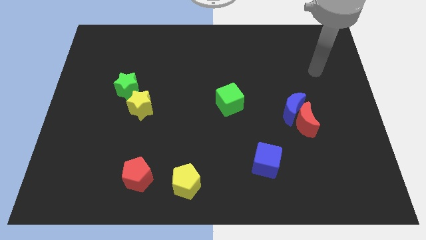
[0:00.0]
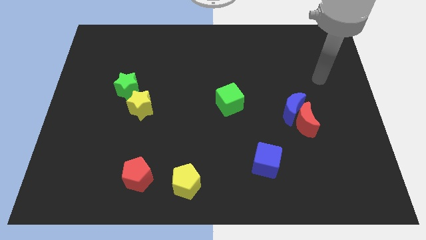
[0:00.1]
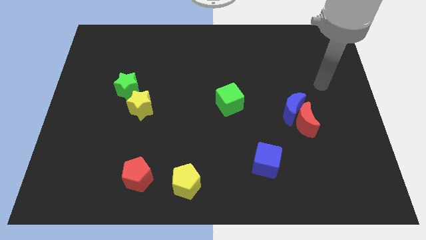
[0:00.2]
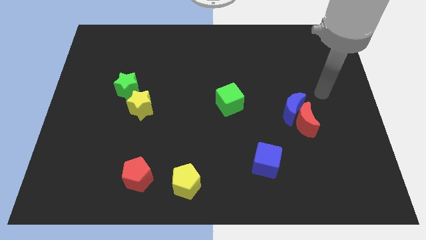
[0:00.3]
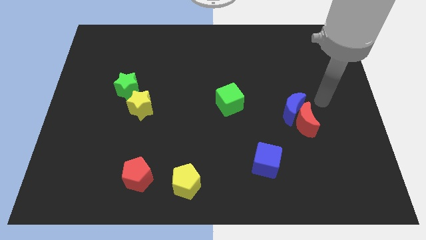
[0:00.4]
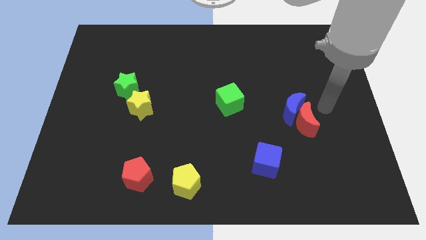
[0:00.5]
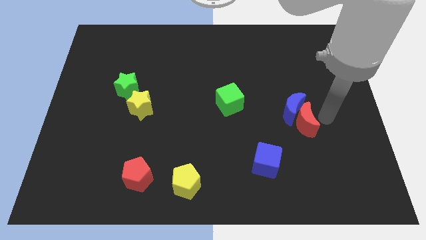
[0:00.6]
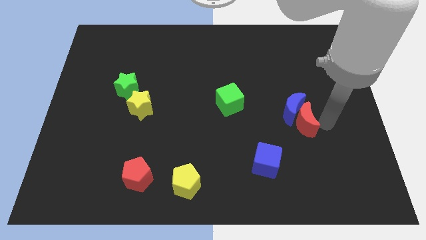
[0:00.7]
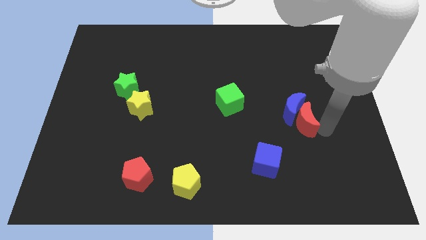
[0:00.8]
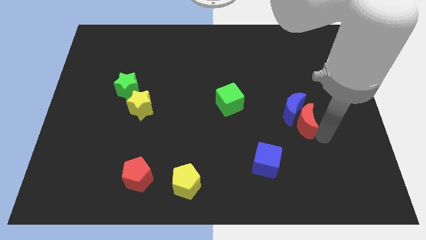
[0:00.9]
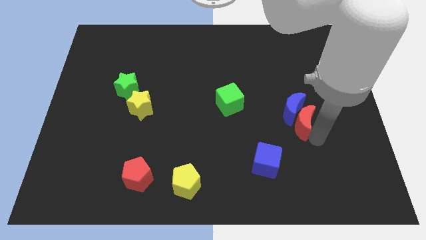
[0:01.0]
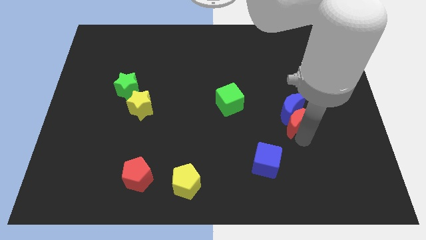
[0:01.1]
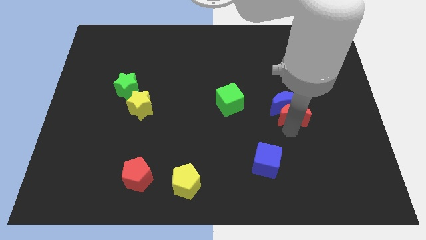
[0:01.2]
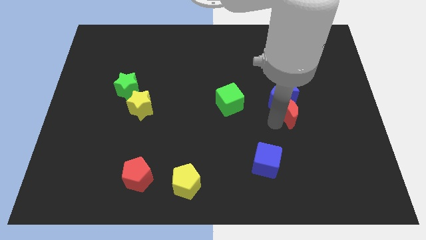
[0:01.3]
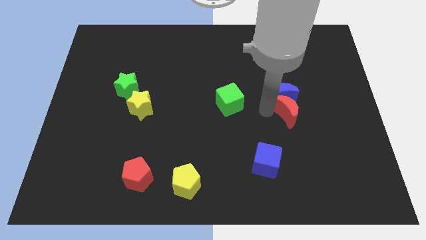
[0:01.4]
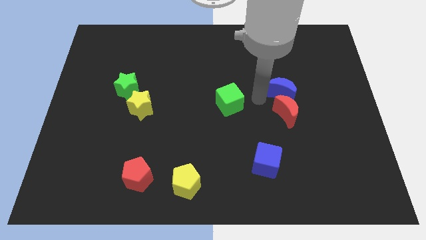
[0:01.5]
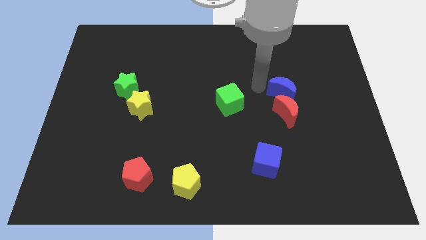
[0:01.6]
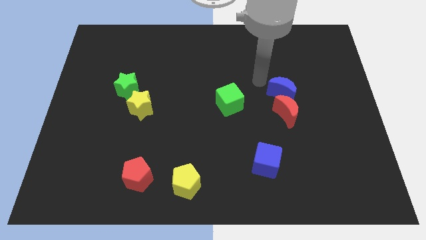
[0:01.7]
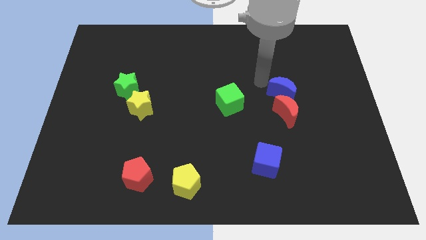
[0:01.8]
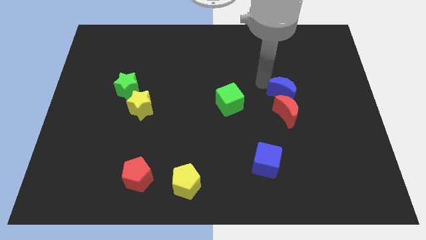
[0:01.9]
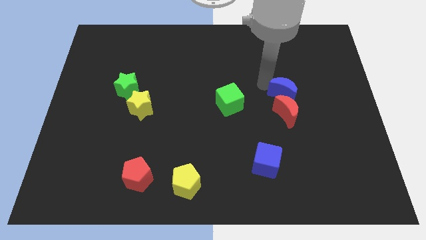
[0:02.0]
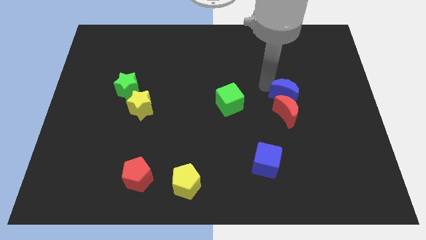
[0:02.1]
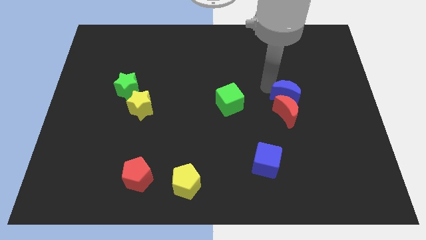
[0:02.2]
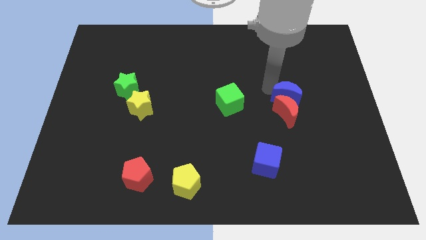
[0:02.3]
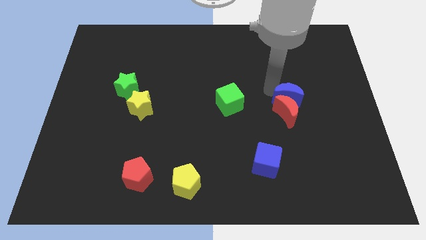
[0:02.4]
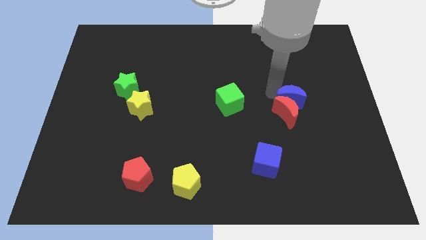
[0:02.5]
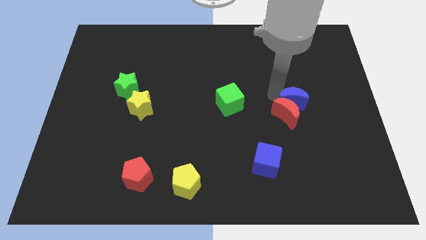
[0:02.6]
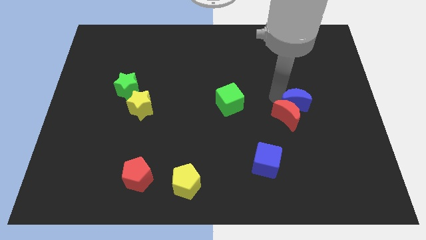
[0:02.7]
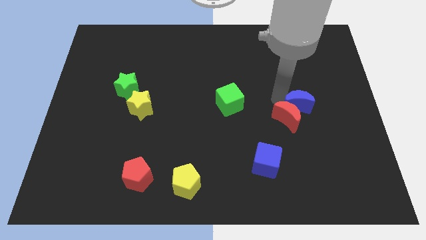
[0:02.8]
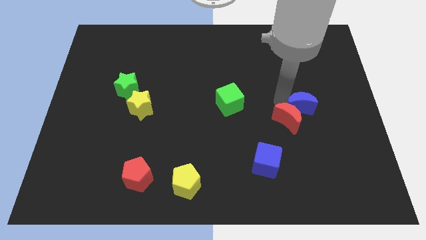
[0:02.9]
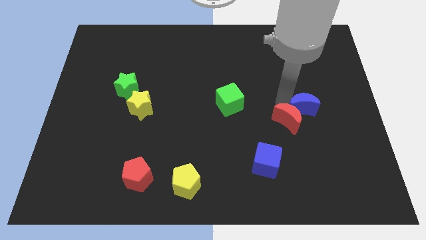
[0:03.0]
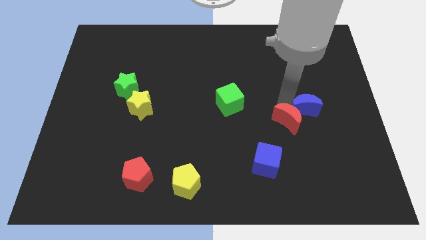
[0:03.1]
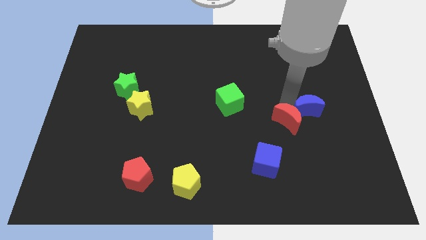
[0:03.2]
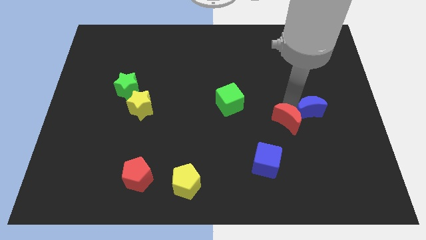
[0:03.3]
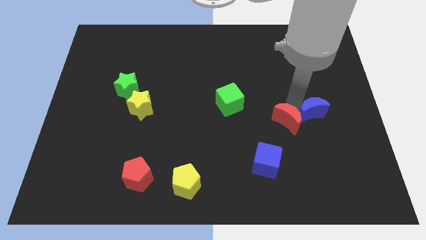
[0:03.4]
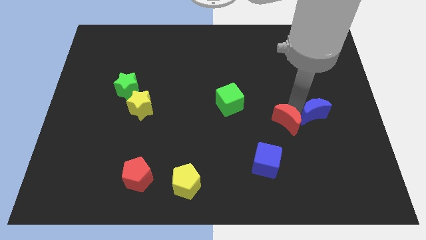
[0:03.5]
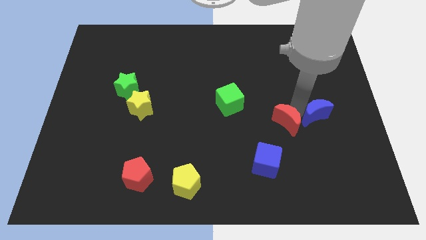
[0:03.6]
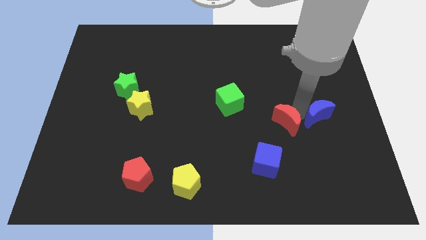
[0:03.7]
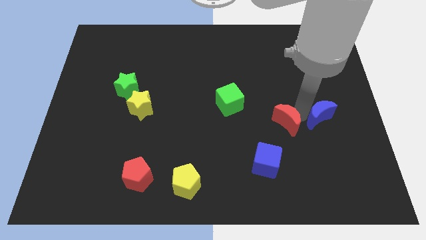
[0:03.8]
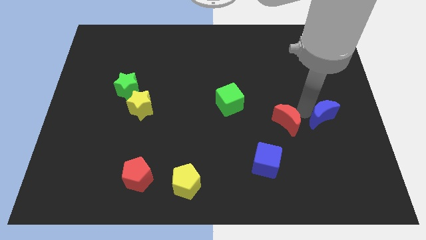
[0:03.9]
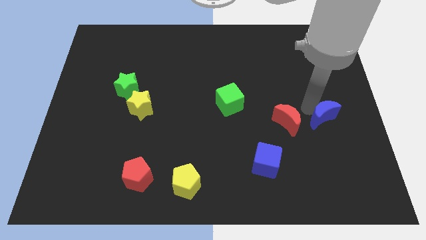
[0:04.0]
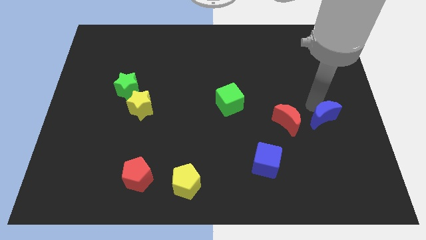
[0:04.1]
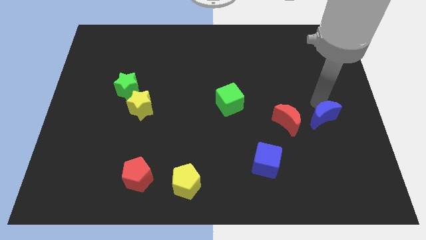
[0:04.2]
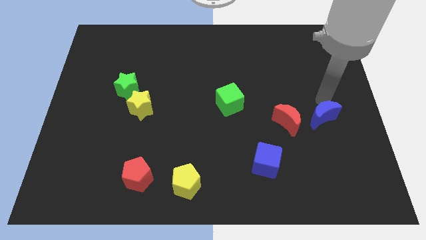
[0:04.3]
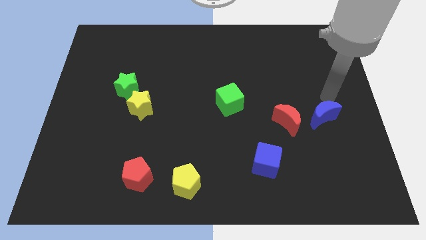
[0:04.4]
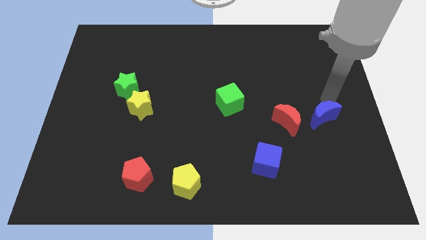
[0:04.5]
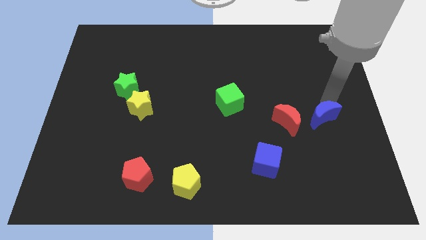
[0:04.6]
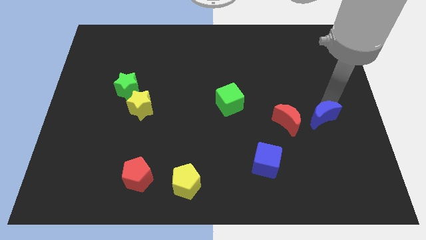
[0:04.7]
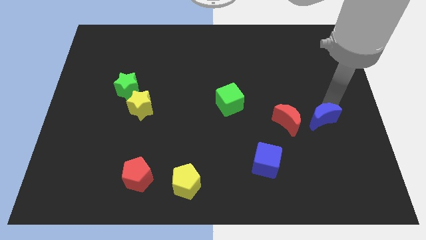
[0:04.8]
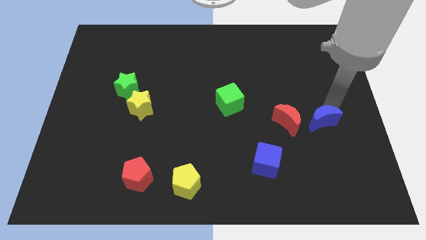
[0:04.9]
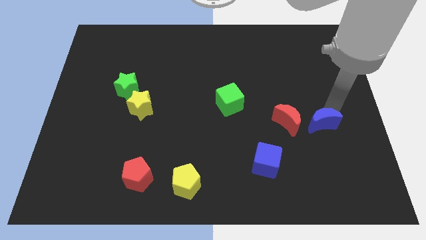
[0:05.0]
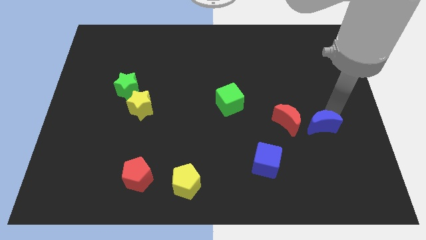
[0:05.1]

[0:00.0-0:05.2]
put the blue moon to the bottom right of the red moon
